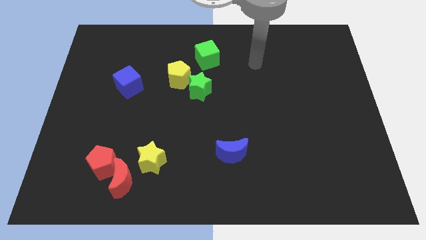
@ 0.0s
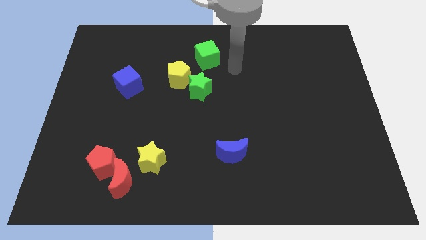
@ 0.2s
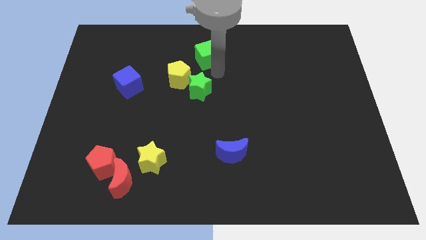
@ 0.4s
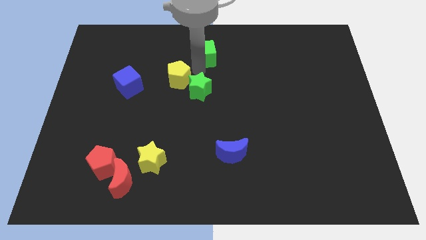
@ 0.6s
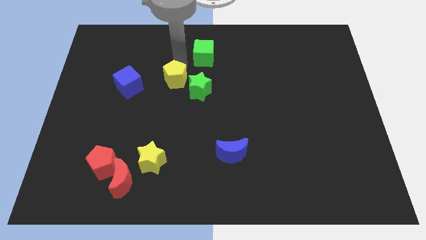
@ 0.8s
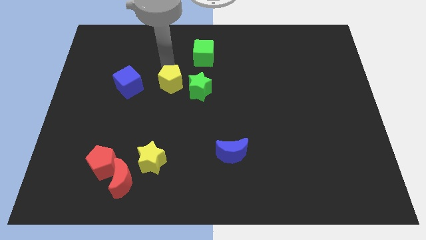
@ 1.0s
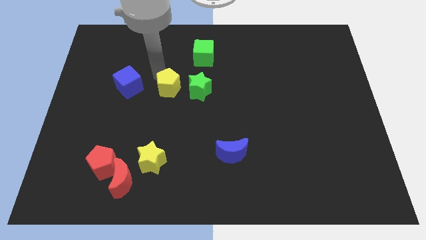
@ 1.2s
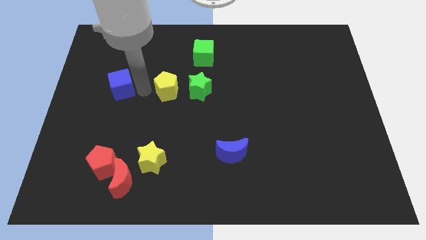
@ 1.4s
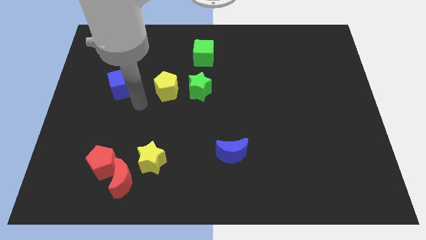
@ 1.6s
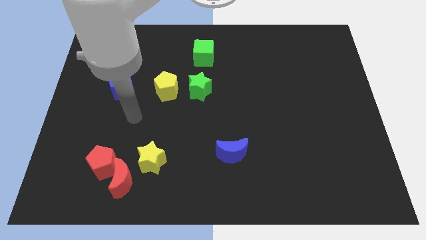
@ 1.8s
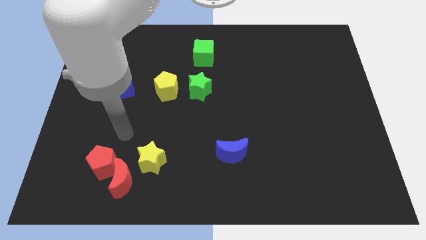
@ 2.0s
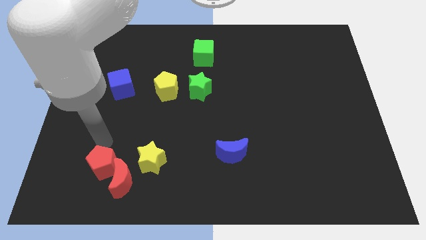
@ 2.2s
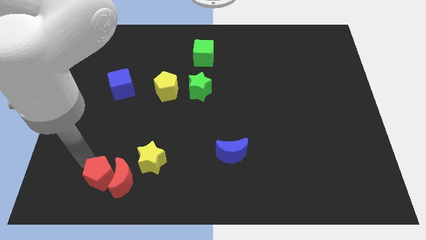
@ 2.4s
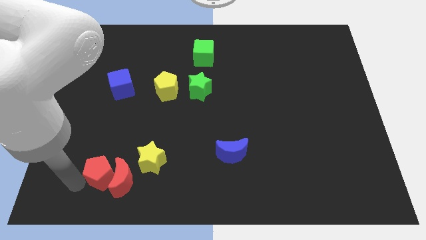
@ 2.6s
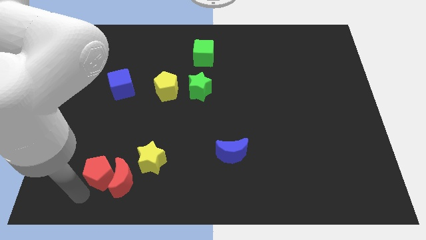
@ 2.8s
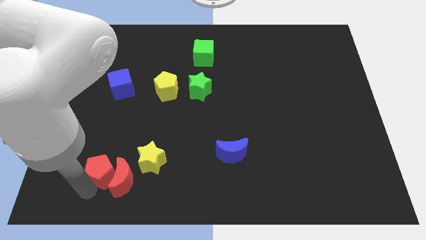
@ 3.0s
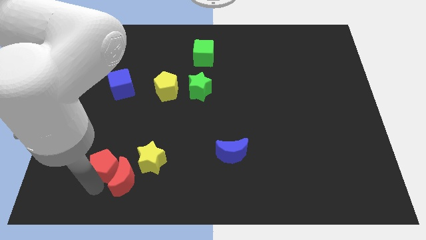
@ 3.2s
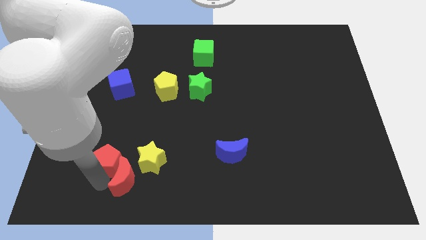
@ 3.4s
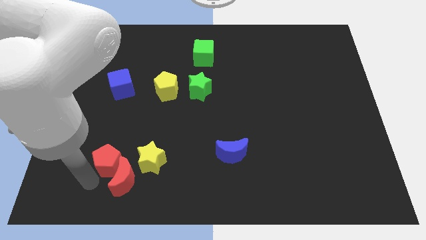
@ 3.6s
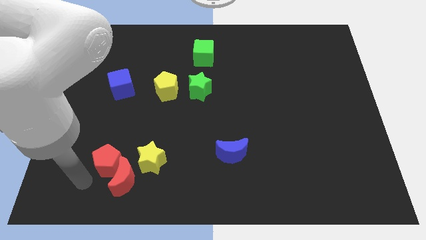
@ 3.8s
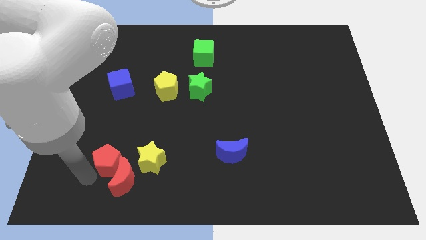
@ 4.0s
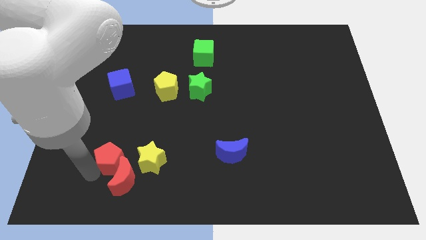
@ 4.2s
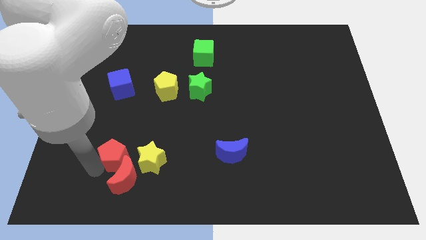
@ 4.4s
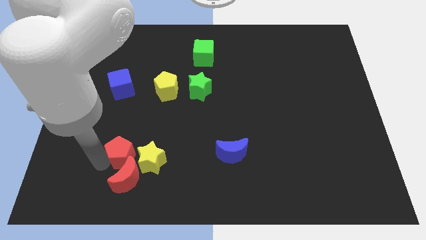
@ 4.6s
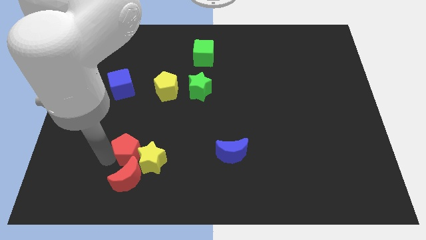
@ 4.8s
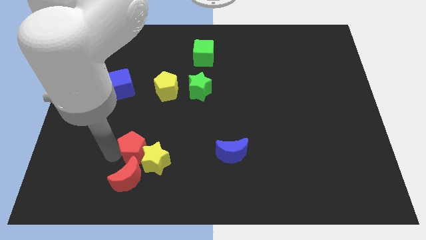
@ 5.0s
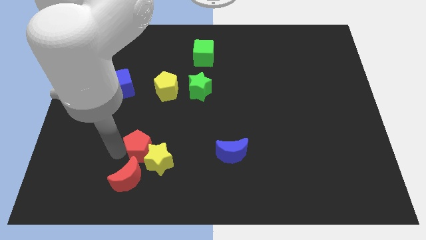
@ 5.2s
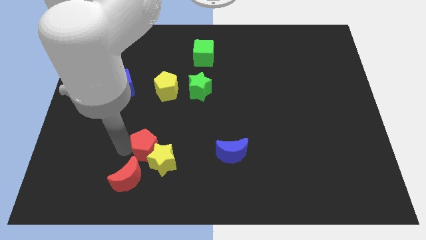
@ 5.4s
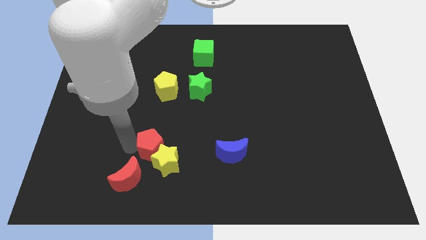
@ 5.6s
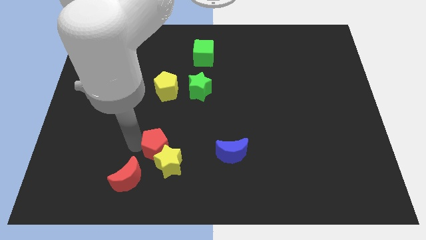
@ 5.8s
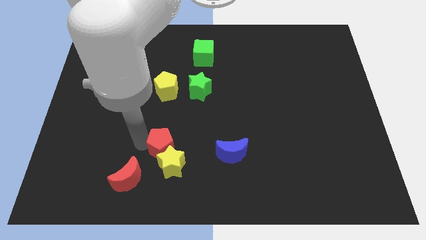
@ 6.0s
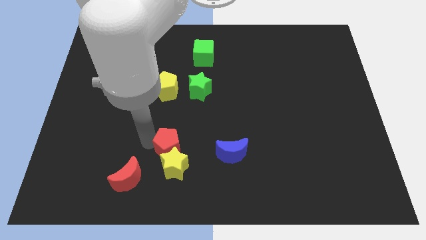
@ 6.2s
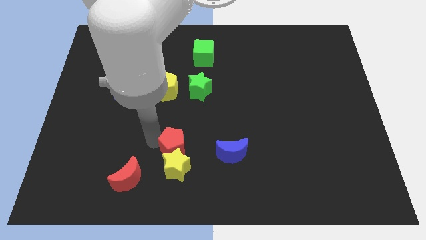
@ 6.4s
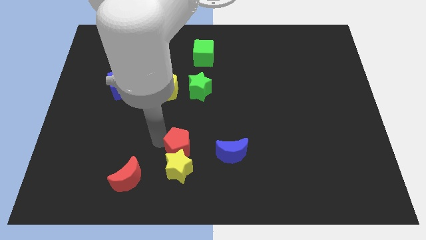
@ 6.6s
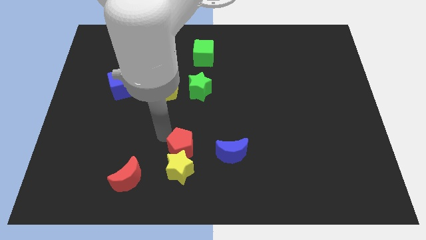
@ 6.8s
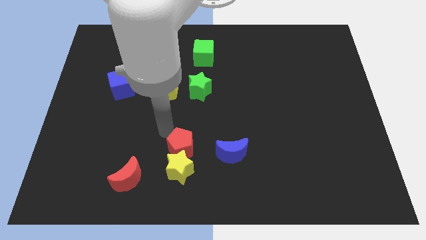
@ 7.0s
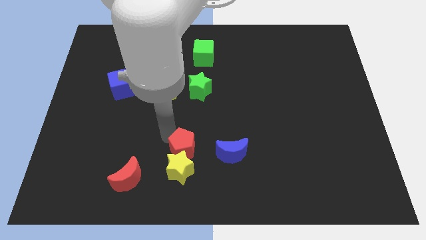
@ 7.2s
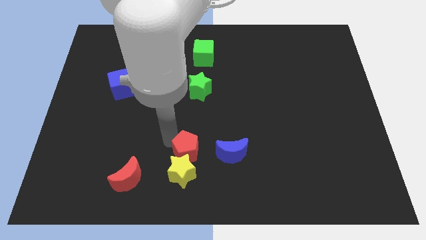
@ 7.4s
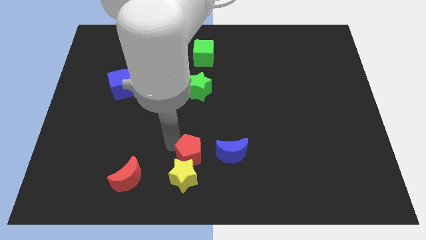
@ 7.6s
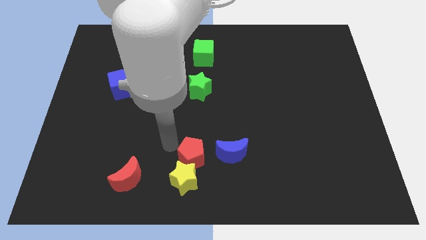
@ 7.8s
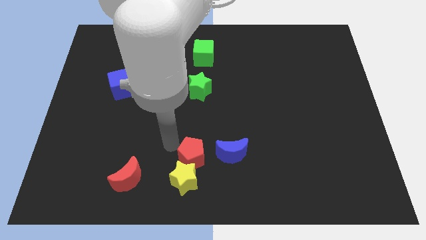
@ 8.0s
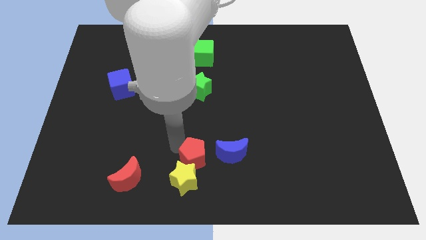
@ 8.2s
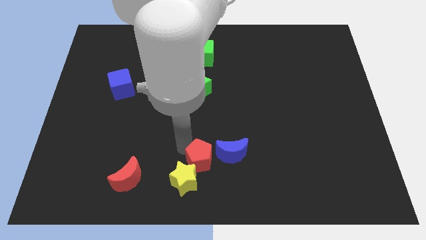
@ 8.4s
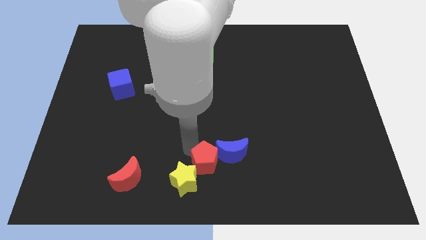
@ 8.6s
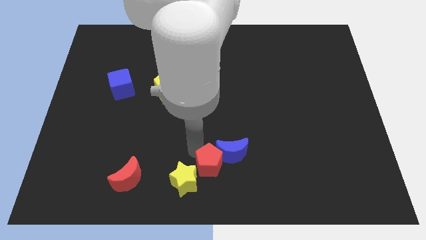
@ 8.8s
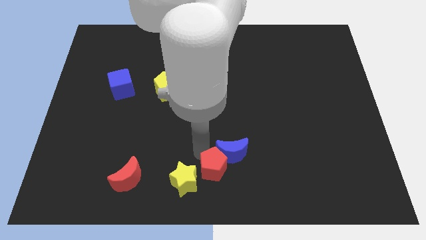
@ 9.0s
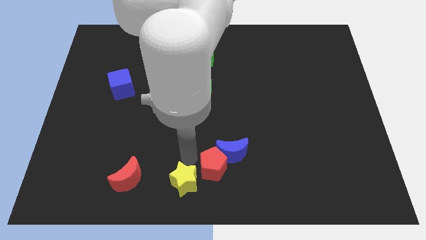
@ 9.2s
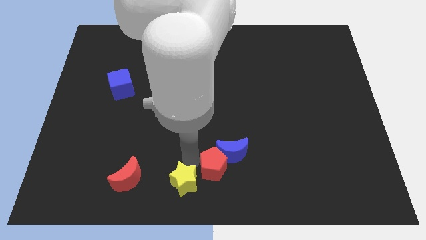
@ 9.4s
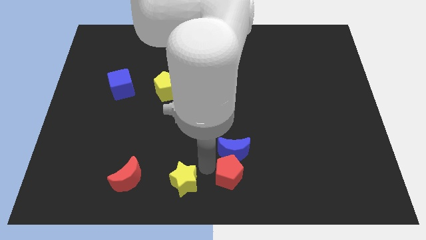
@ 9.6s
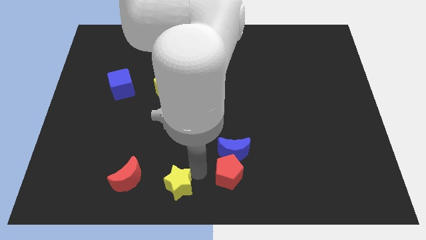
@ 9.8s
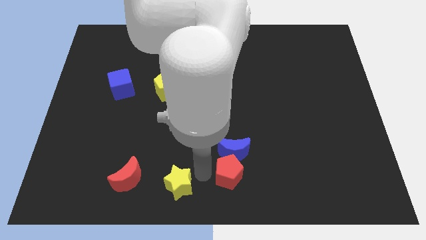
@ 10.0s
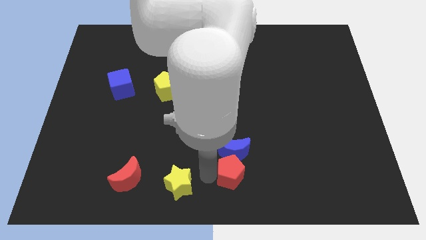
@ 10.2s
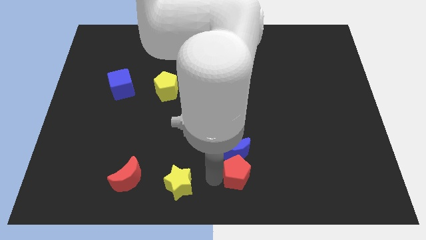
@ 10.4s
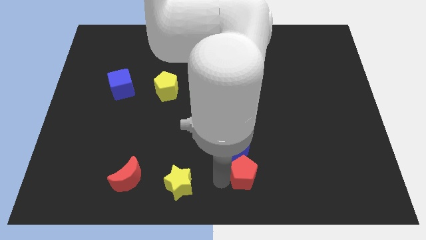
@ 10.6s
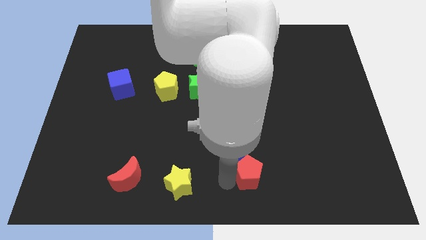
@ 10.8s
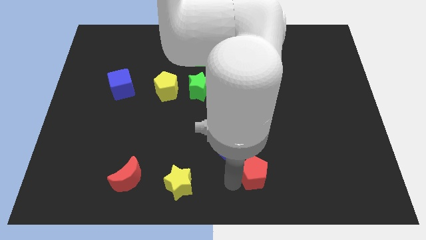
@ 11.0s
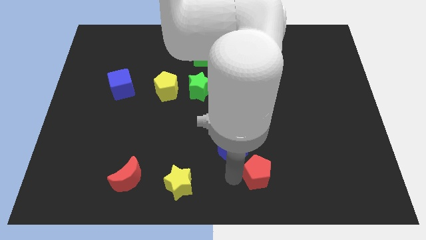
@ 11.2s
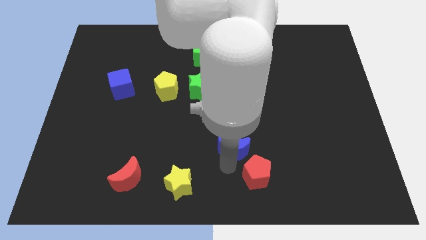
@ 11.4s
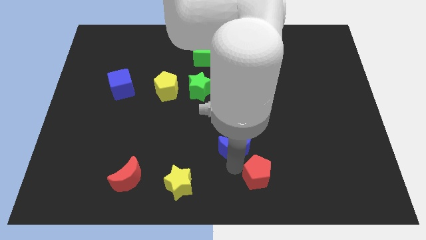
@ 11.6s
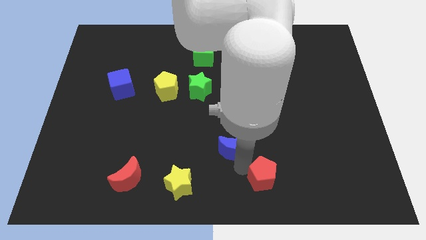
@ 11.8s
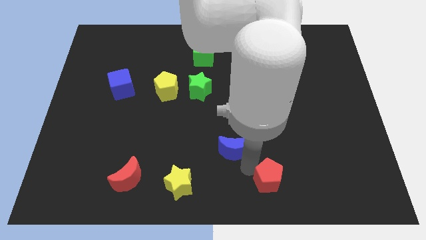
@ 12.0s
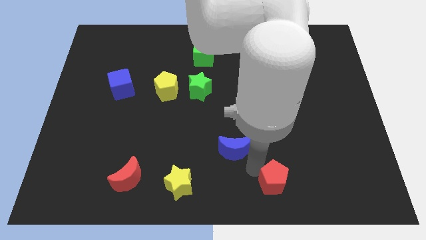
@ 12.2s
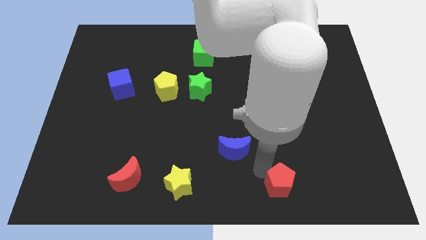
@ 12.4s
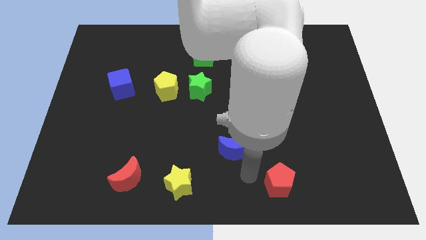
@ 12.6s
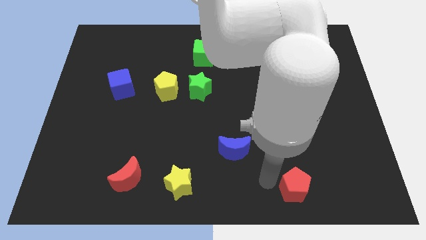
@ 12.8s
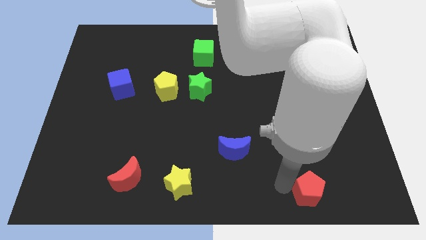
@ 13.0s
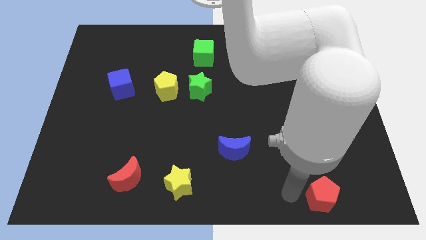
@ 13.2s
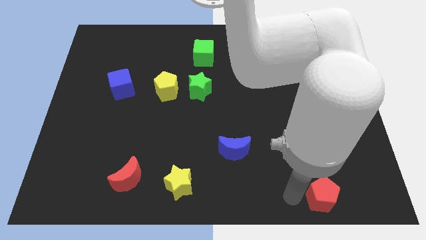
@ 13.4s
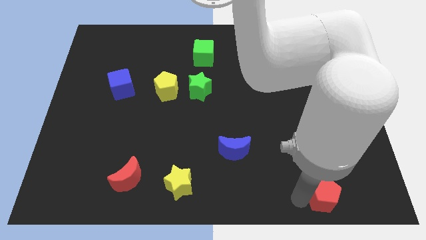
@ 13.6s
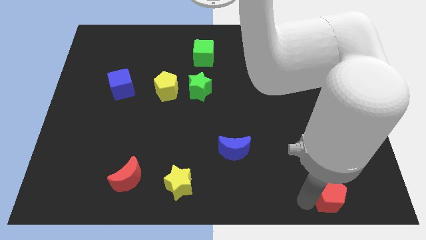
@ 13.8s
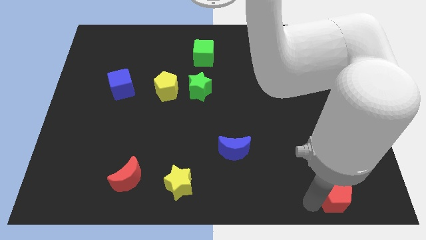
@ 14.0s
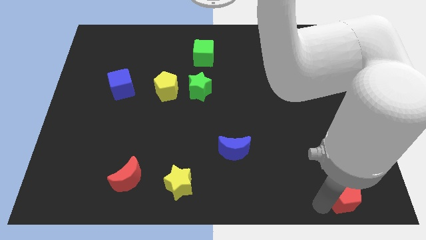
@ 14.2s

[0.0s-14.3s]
push the red pentagon to the lower right corner
